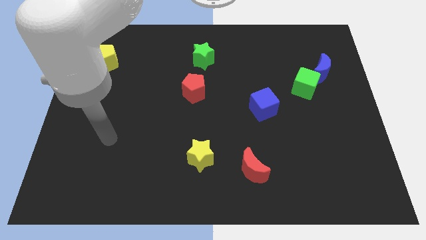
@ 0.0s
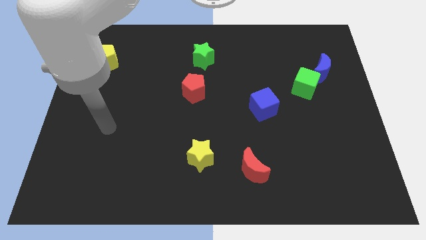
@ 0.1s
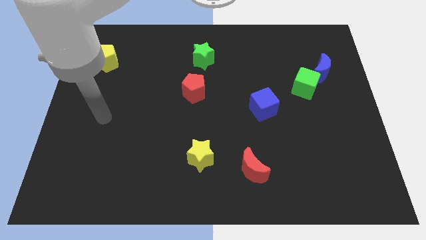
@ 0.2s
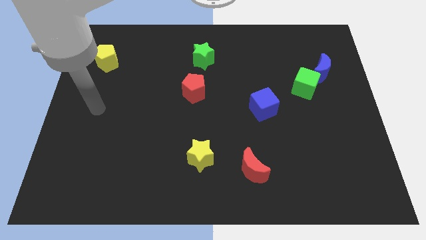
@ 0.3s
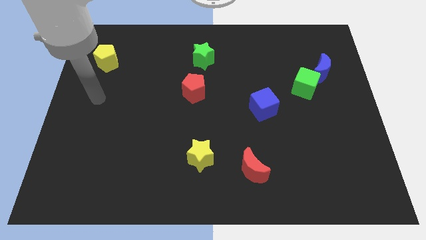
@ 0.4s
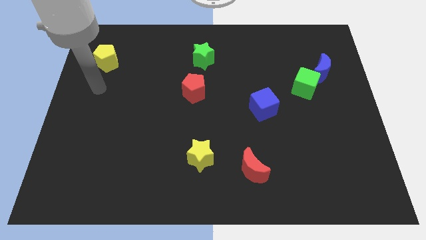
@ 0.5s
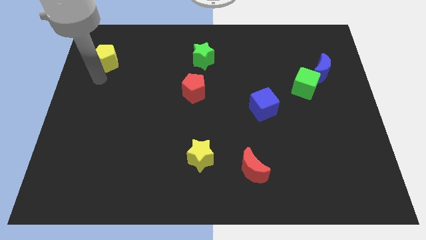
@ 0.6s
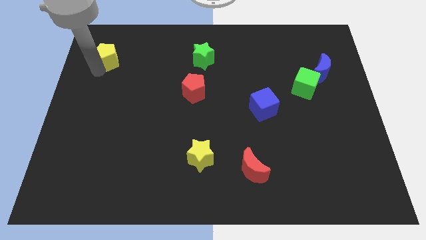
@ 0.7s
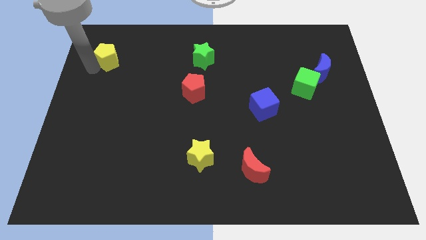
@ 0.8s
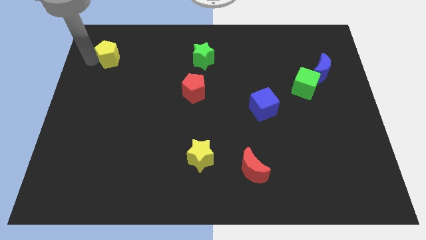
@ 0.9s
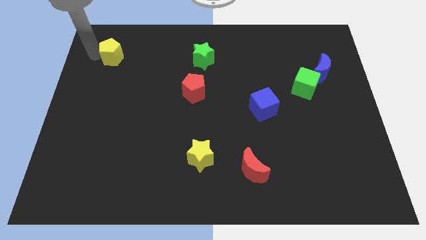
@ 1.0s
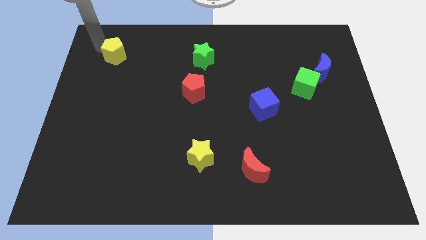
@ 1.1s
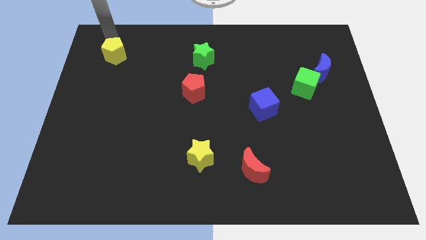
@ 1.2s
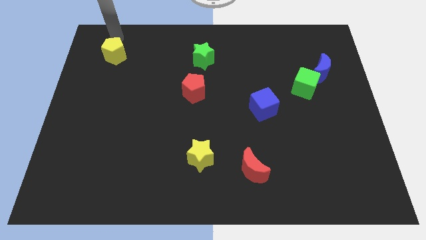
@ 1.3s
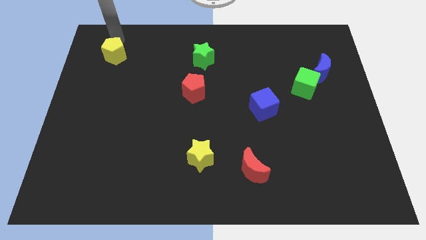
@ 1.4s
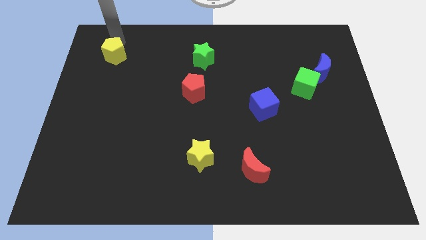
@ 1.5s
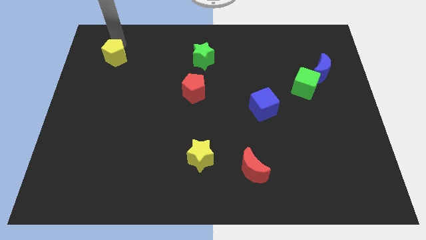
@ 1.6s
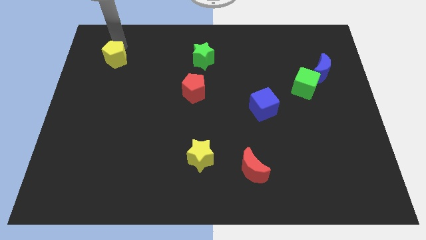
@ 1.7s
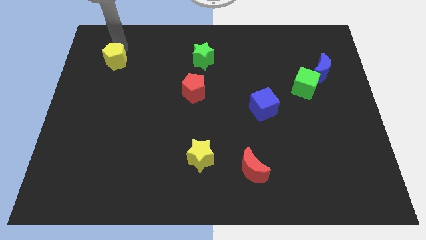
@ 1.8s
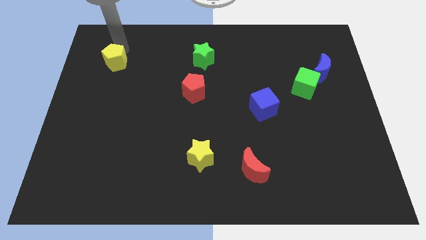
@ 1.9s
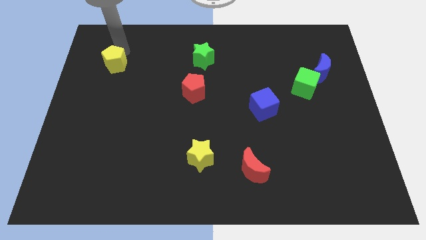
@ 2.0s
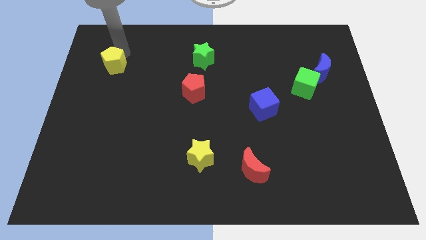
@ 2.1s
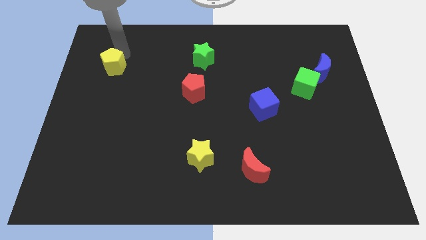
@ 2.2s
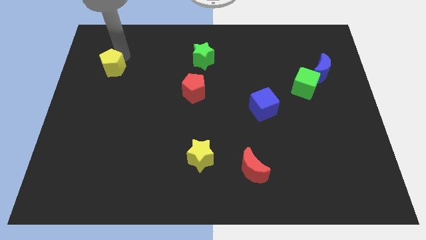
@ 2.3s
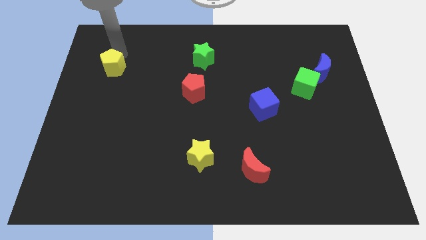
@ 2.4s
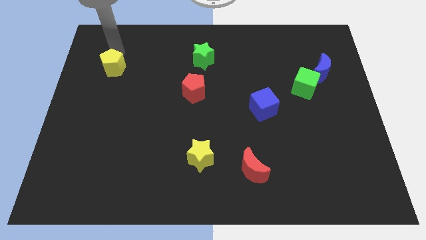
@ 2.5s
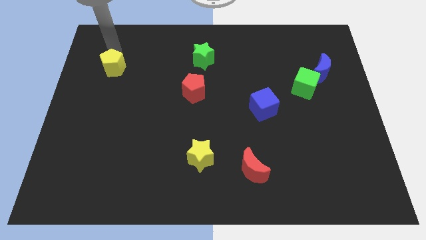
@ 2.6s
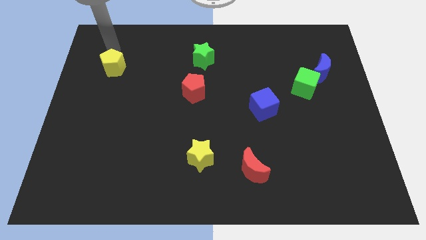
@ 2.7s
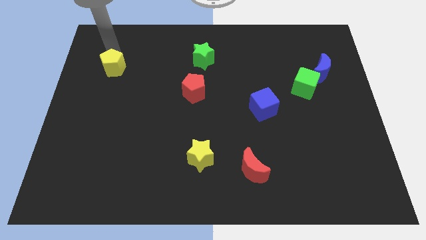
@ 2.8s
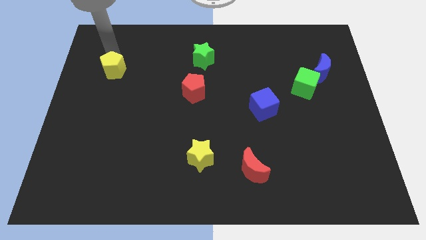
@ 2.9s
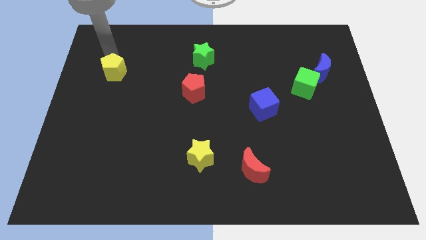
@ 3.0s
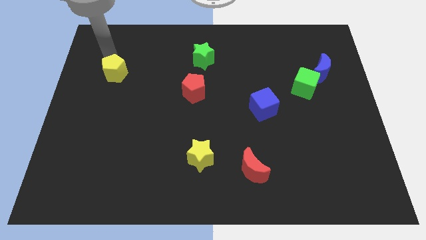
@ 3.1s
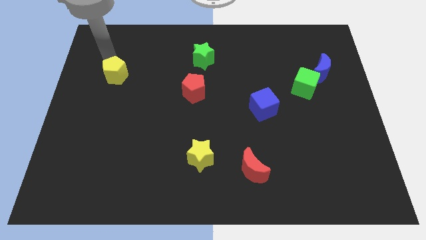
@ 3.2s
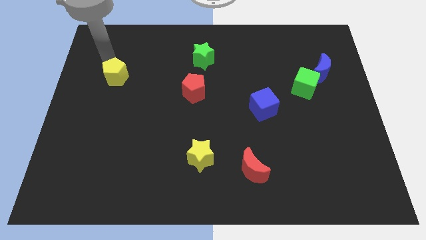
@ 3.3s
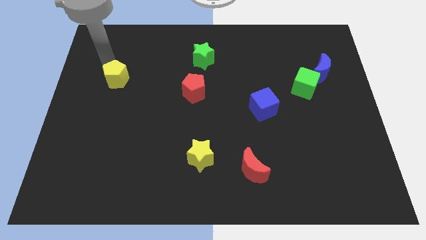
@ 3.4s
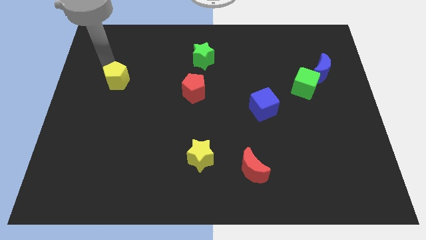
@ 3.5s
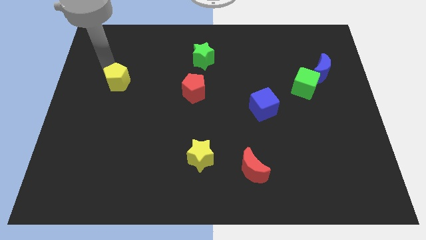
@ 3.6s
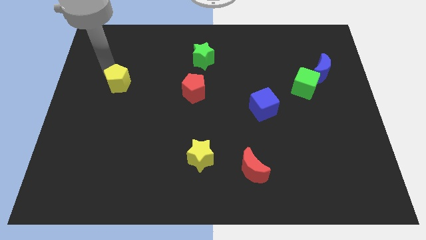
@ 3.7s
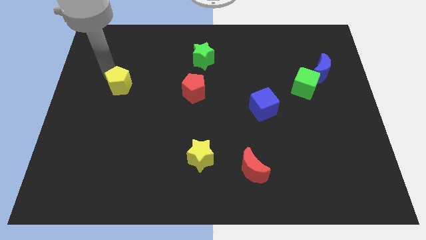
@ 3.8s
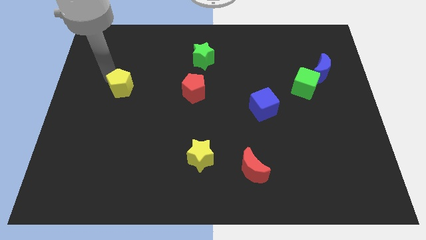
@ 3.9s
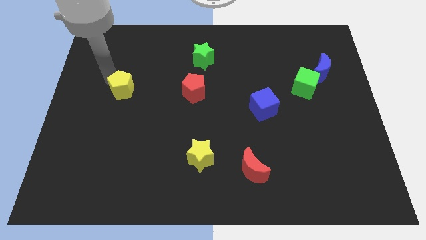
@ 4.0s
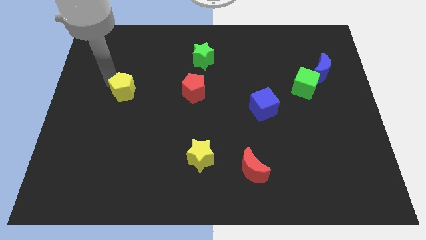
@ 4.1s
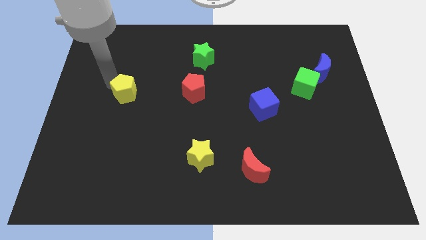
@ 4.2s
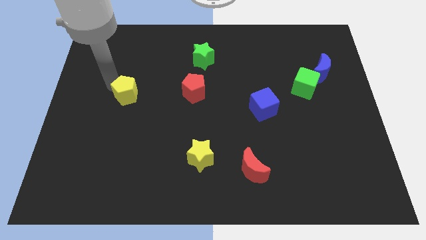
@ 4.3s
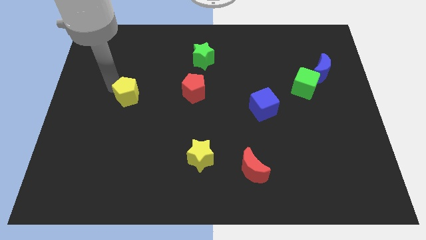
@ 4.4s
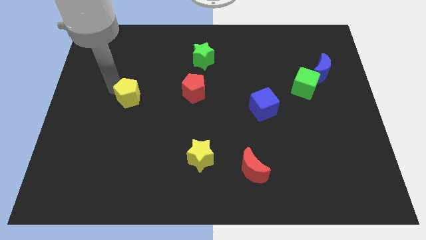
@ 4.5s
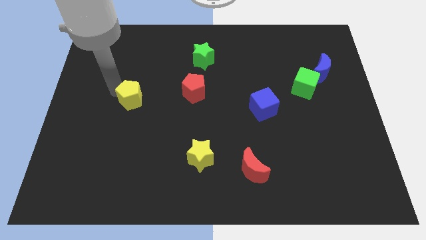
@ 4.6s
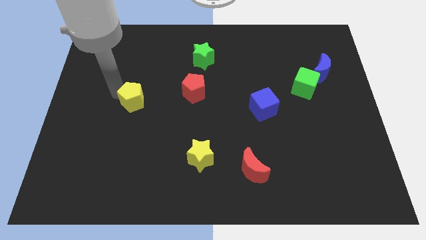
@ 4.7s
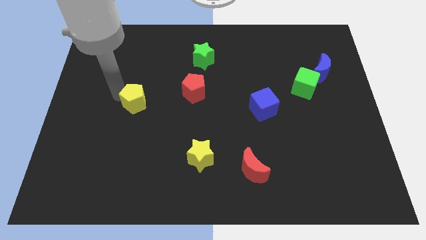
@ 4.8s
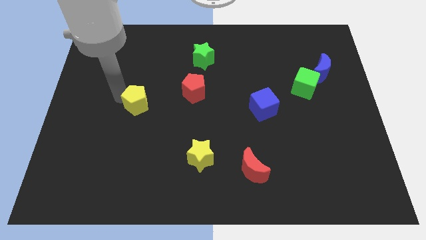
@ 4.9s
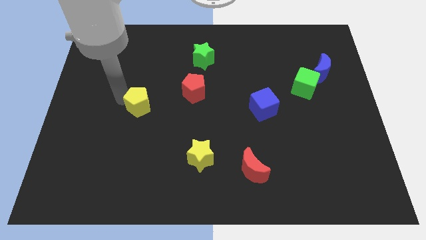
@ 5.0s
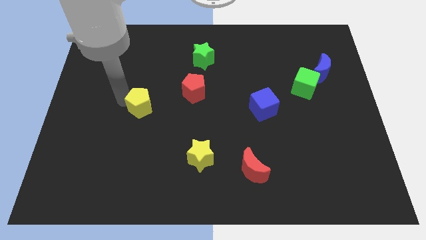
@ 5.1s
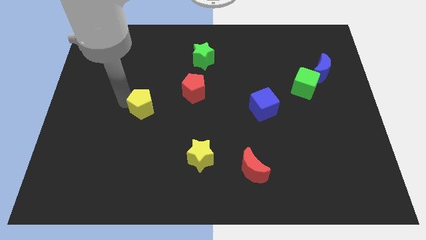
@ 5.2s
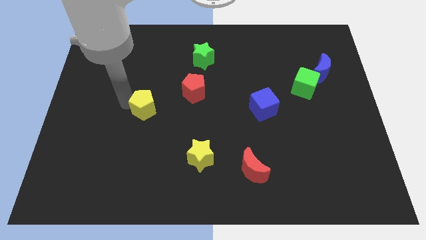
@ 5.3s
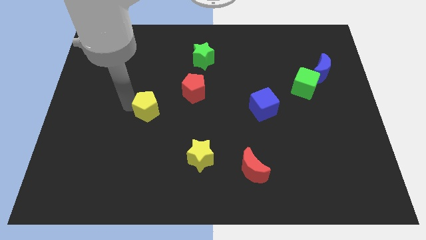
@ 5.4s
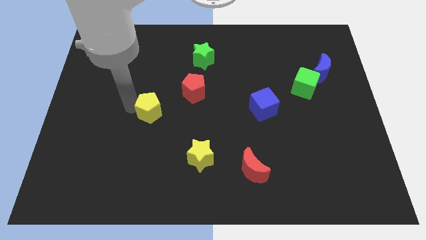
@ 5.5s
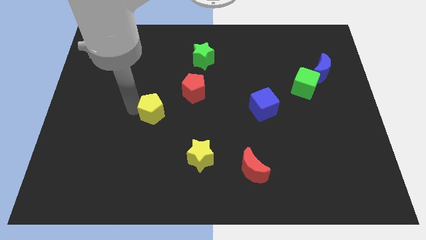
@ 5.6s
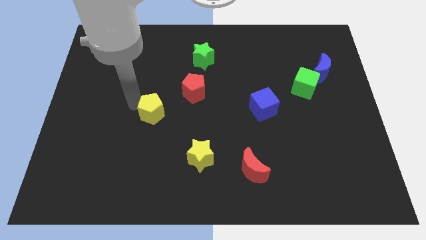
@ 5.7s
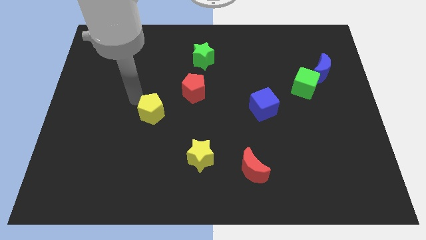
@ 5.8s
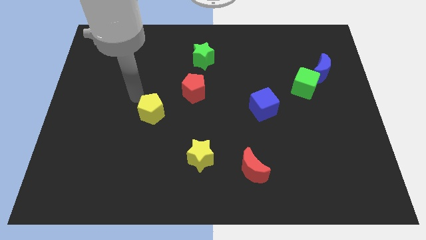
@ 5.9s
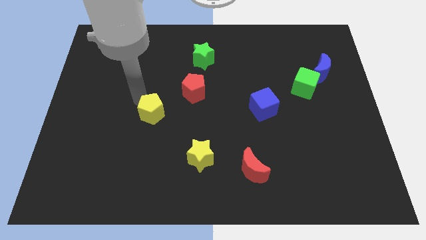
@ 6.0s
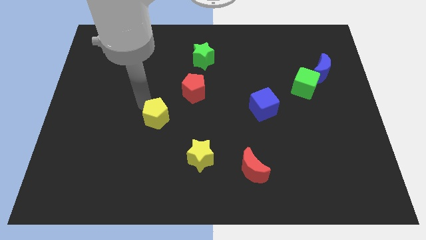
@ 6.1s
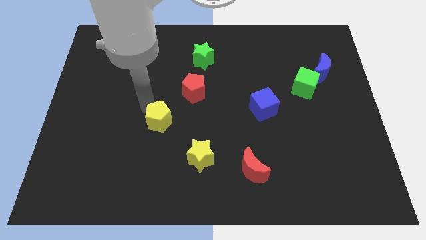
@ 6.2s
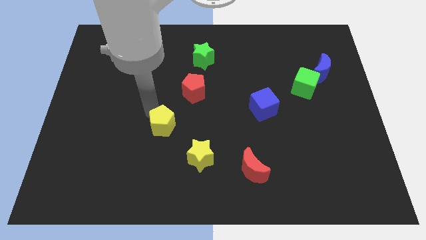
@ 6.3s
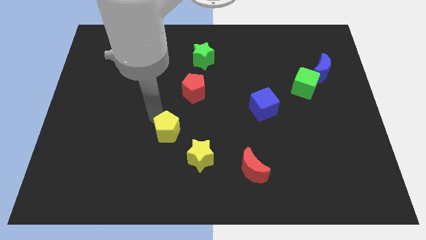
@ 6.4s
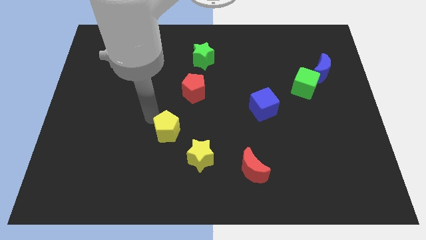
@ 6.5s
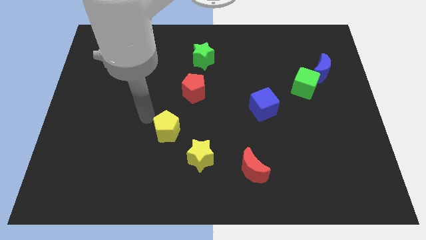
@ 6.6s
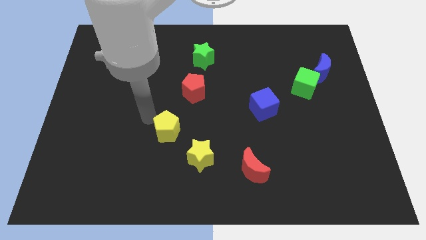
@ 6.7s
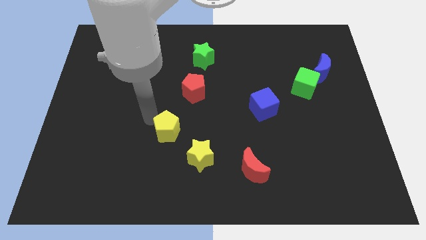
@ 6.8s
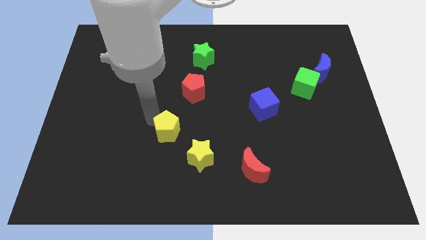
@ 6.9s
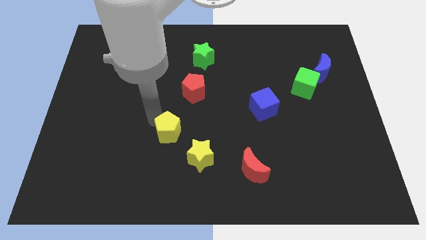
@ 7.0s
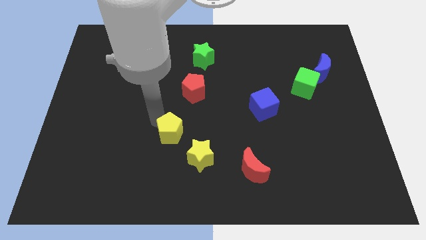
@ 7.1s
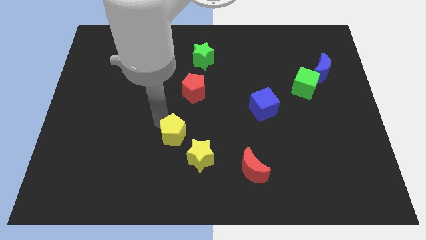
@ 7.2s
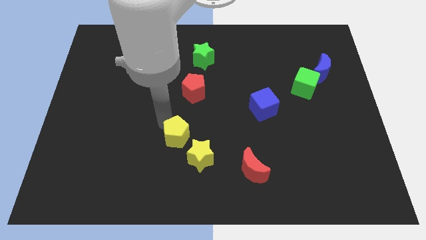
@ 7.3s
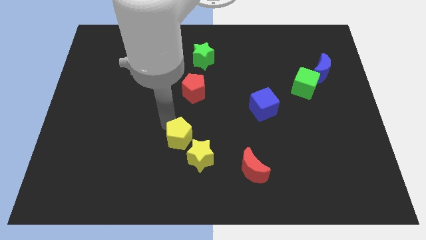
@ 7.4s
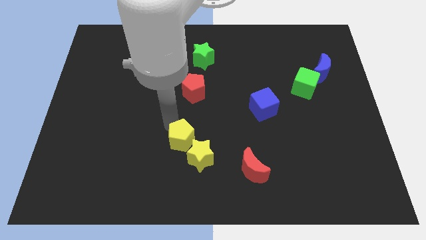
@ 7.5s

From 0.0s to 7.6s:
put the yellow pentagon close to the yellow star

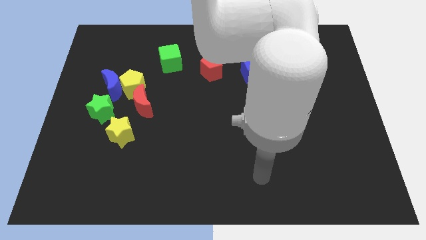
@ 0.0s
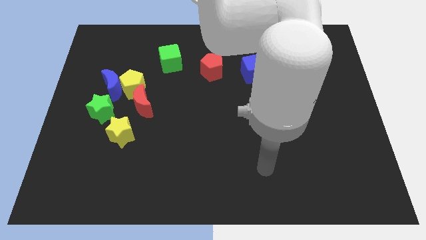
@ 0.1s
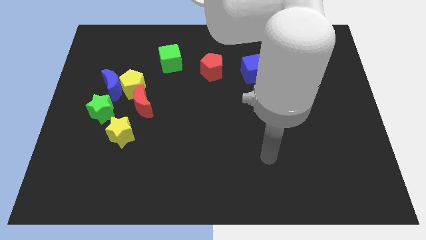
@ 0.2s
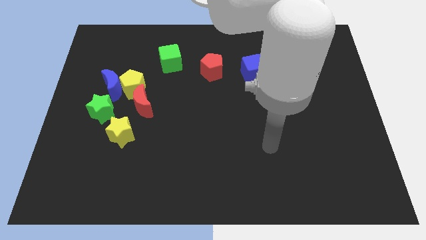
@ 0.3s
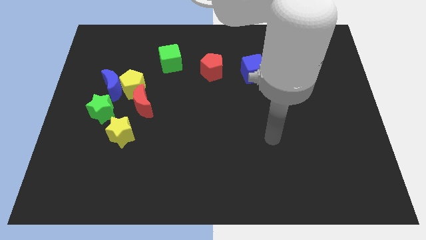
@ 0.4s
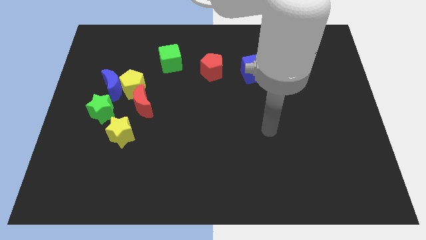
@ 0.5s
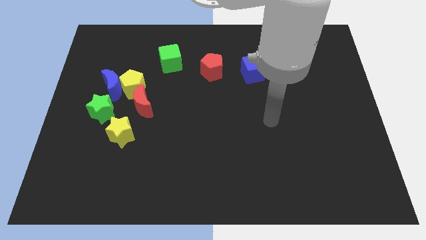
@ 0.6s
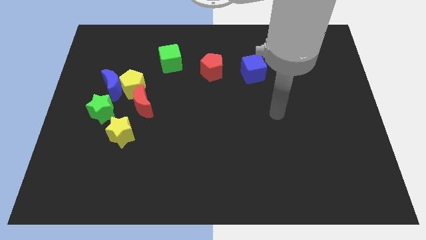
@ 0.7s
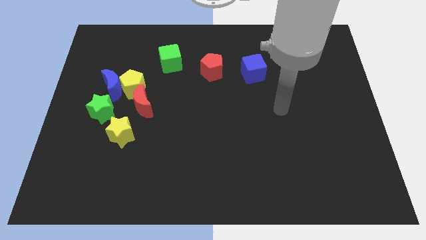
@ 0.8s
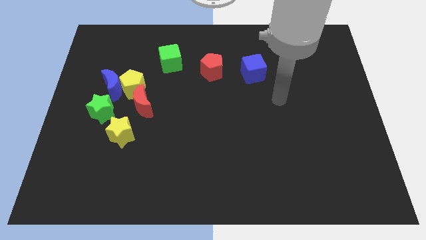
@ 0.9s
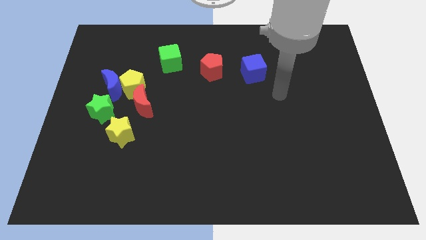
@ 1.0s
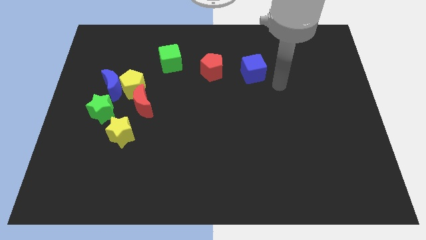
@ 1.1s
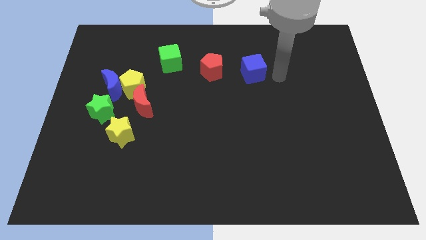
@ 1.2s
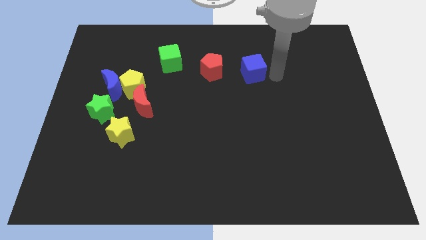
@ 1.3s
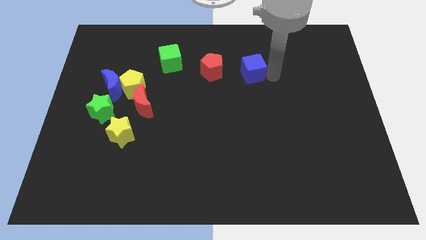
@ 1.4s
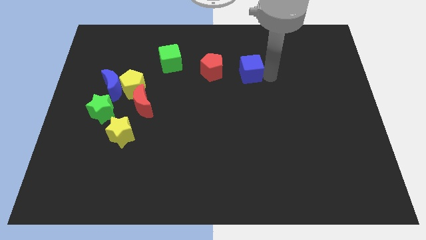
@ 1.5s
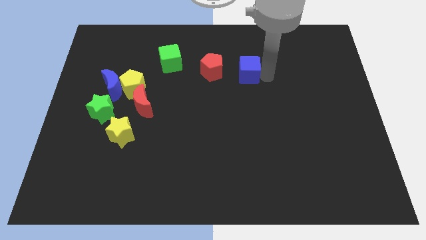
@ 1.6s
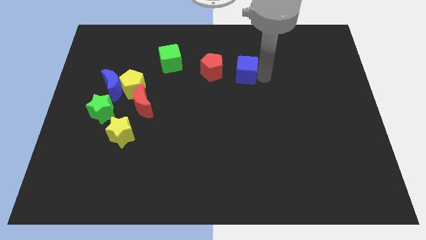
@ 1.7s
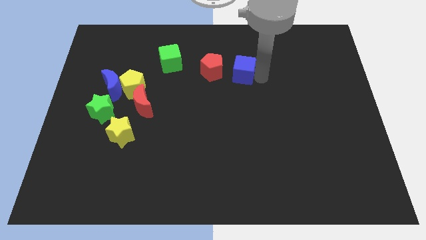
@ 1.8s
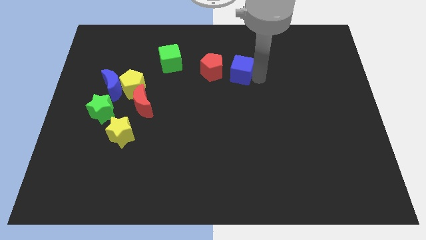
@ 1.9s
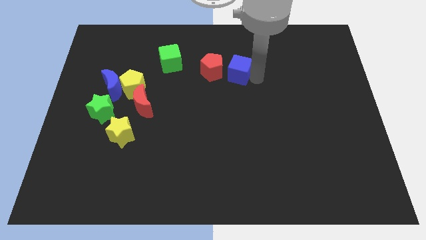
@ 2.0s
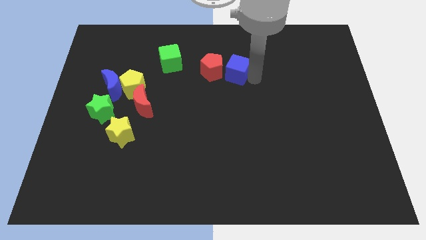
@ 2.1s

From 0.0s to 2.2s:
slide the blue cube to the red pentagon
